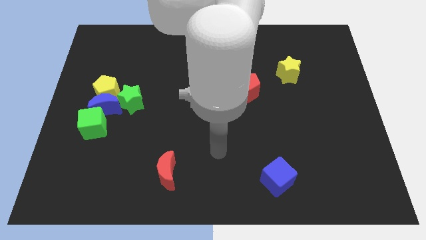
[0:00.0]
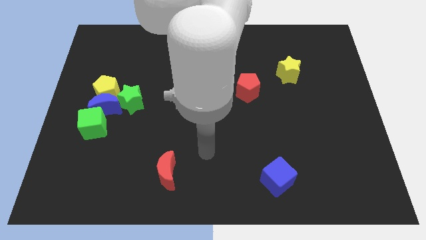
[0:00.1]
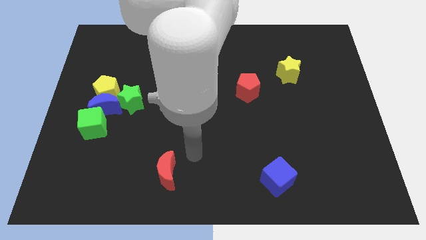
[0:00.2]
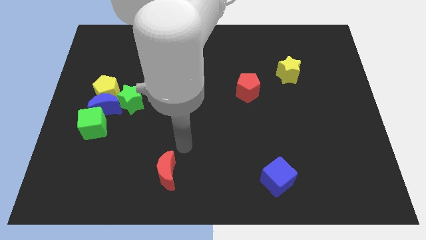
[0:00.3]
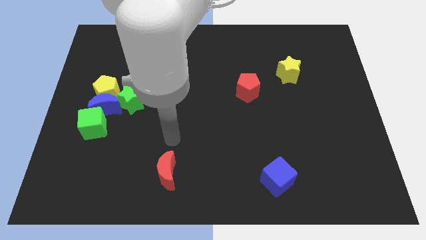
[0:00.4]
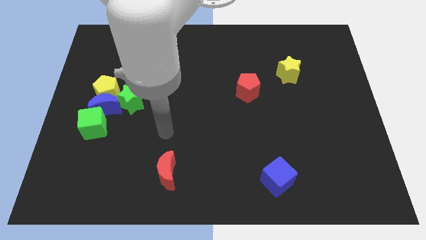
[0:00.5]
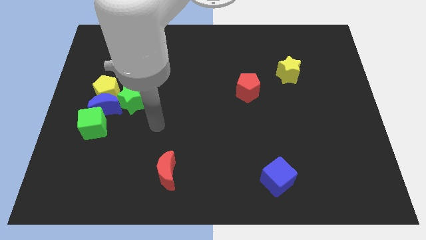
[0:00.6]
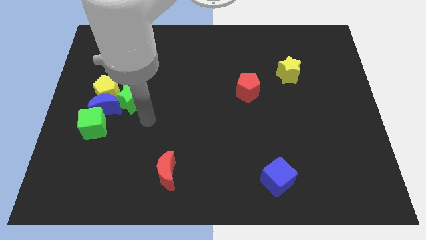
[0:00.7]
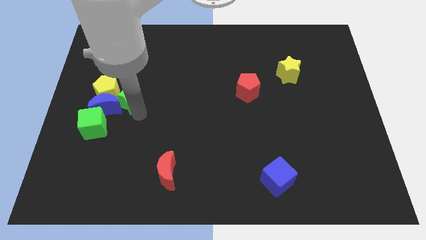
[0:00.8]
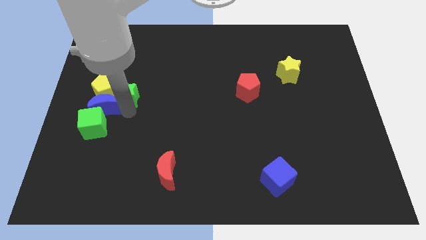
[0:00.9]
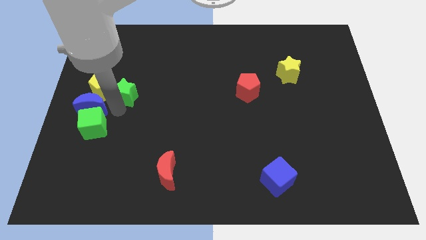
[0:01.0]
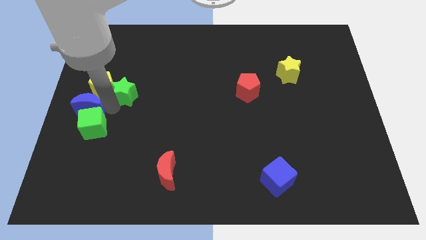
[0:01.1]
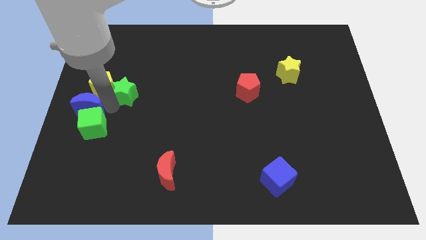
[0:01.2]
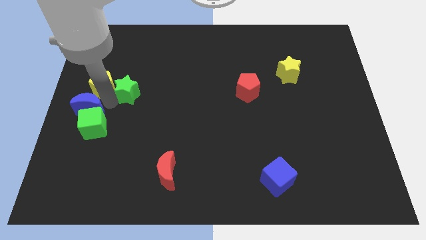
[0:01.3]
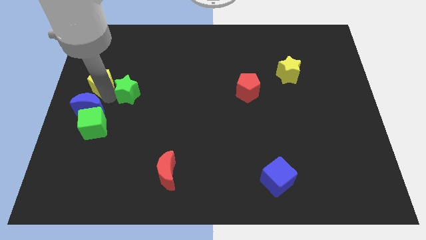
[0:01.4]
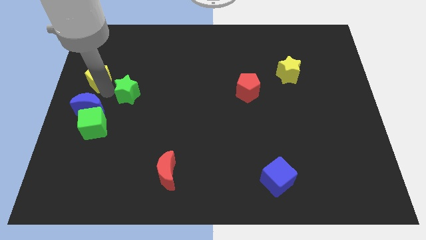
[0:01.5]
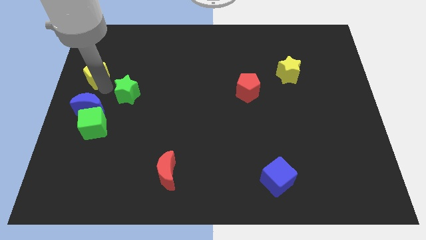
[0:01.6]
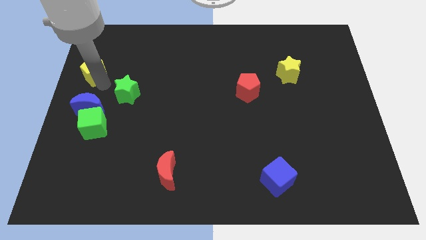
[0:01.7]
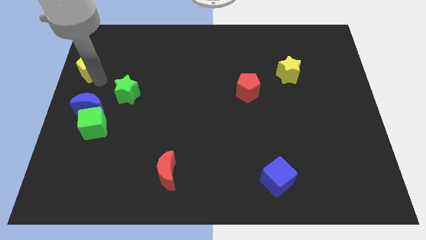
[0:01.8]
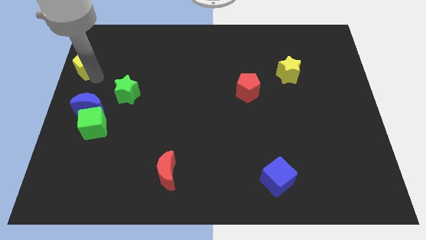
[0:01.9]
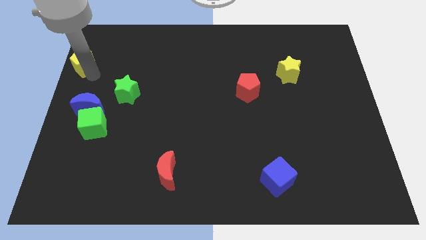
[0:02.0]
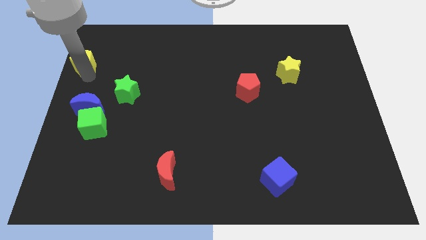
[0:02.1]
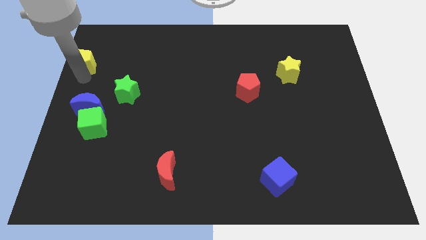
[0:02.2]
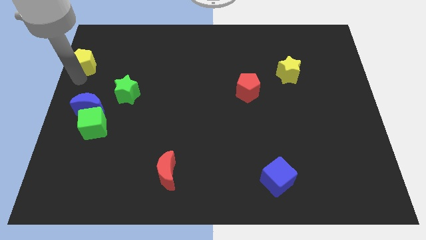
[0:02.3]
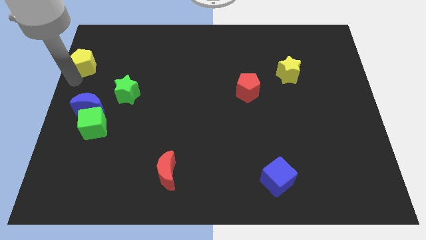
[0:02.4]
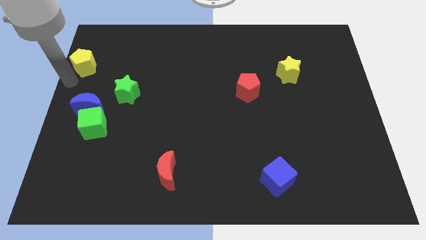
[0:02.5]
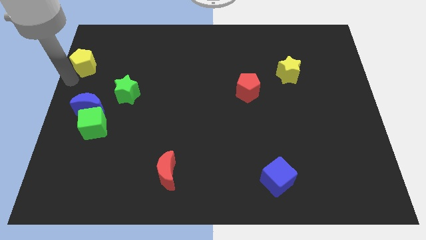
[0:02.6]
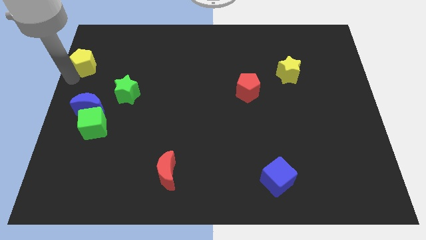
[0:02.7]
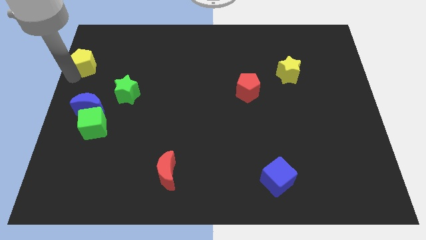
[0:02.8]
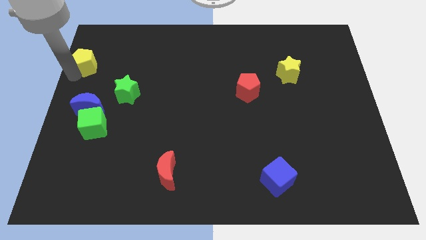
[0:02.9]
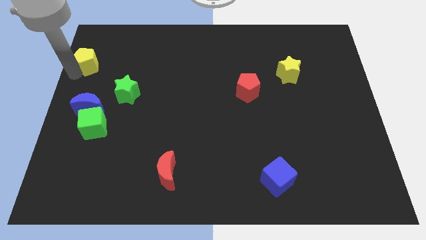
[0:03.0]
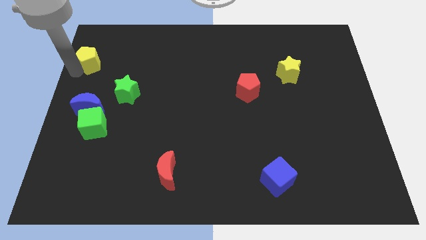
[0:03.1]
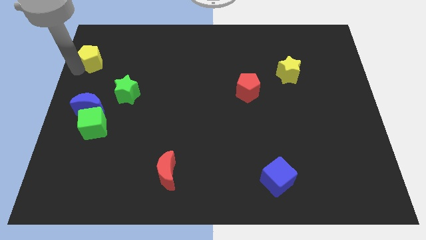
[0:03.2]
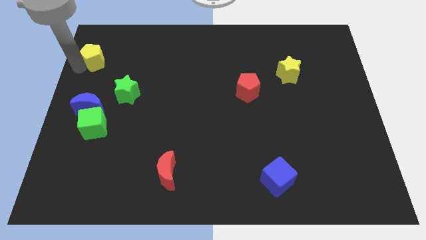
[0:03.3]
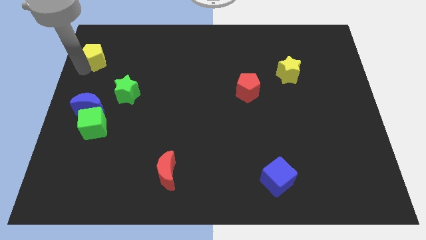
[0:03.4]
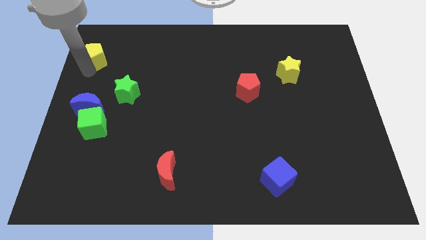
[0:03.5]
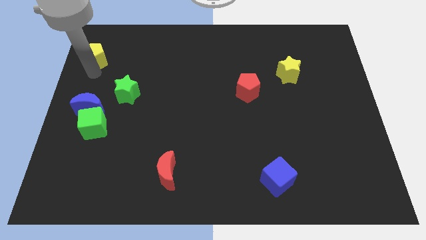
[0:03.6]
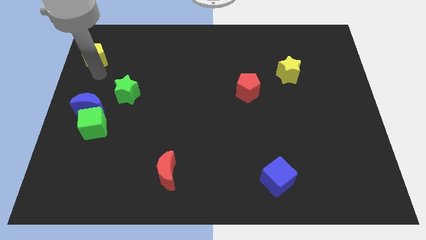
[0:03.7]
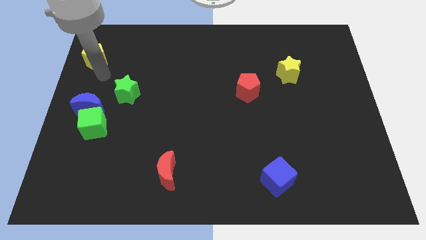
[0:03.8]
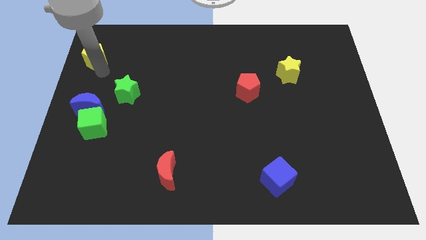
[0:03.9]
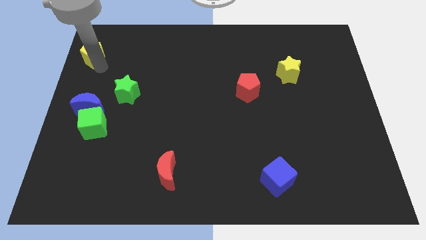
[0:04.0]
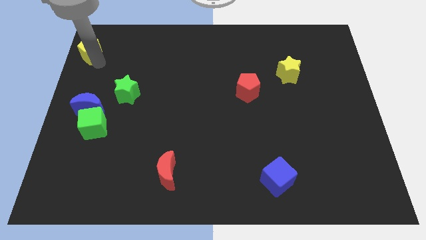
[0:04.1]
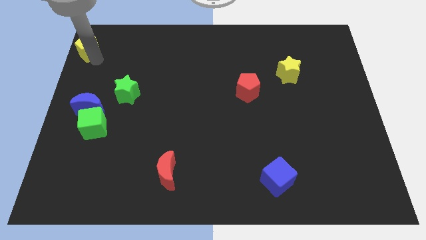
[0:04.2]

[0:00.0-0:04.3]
put the yellow pentagon to the top left

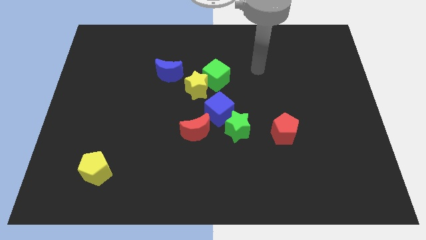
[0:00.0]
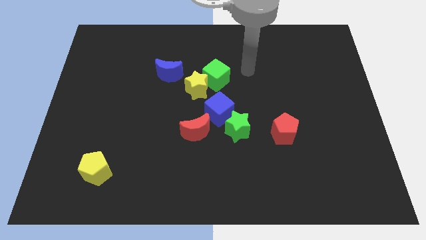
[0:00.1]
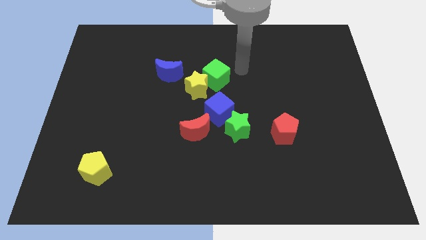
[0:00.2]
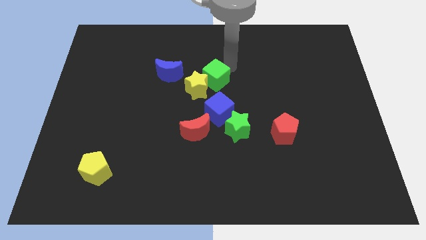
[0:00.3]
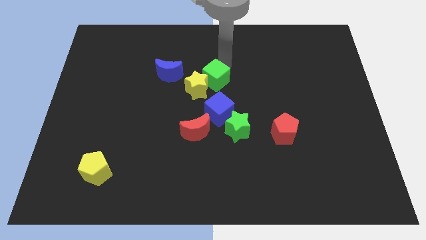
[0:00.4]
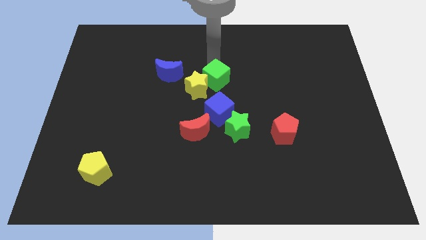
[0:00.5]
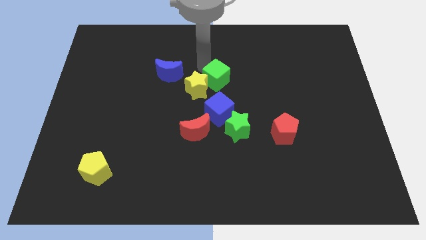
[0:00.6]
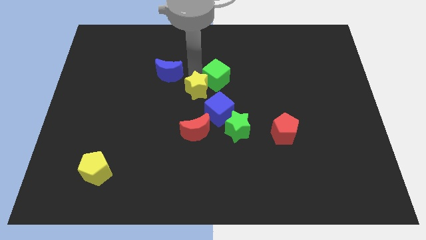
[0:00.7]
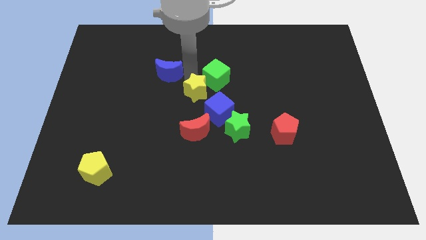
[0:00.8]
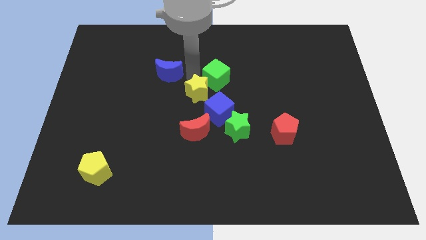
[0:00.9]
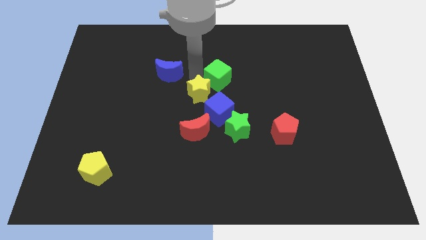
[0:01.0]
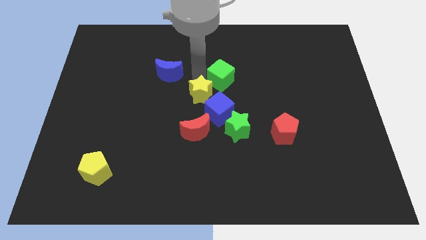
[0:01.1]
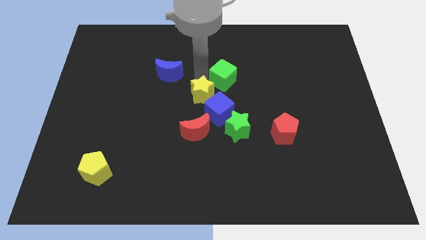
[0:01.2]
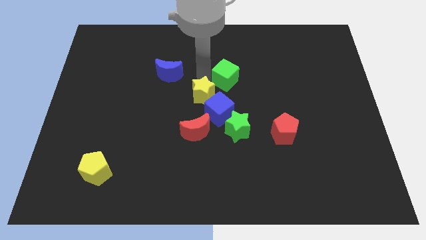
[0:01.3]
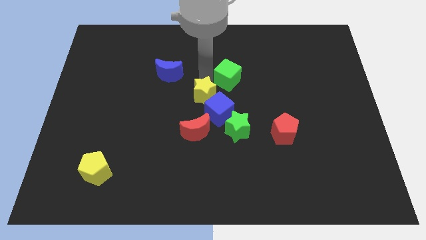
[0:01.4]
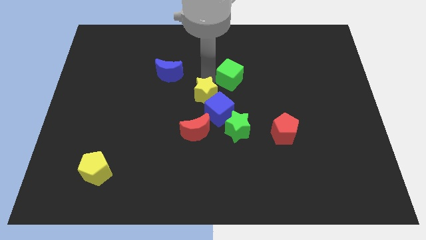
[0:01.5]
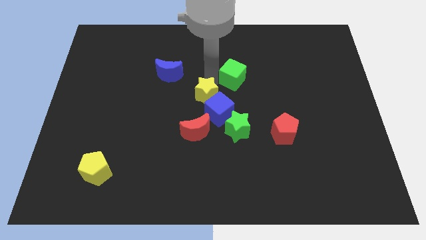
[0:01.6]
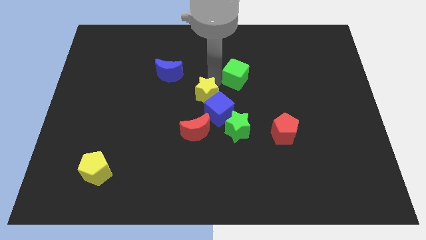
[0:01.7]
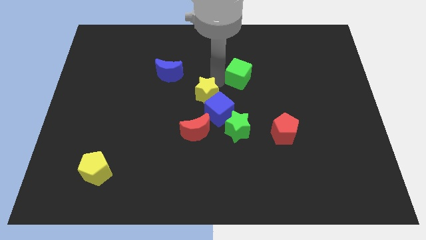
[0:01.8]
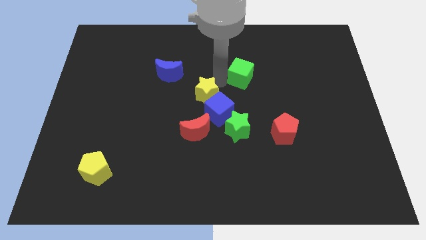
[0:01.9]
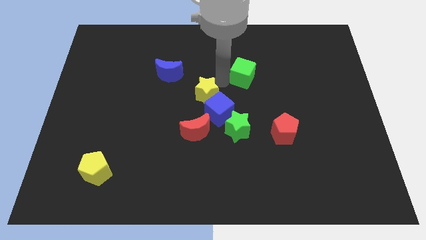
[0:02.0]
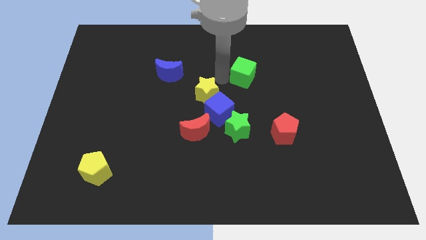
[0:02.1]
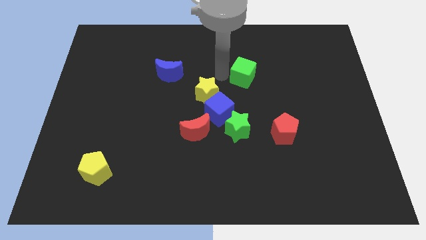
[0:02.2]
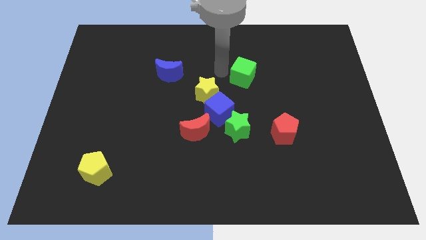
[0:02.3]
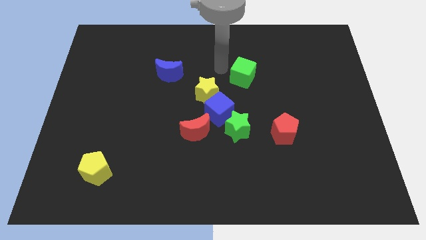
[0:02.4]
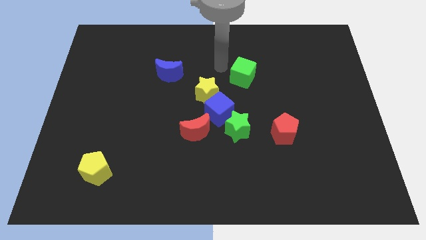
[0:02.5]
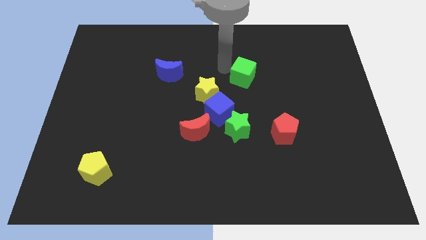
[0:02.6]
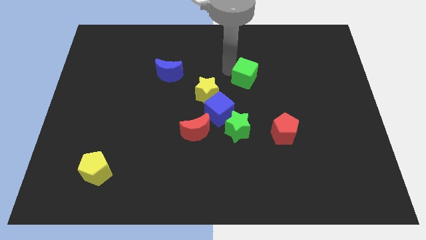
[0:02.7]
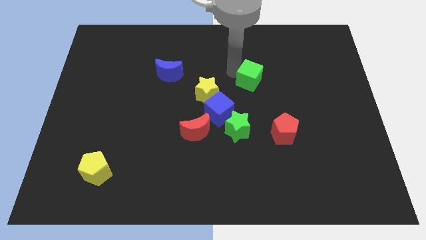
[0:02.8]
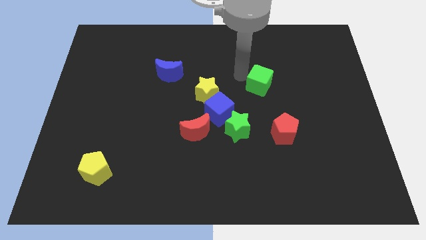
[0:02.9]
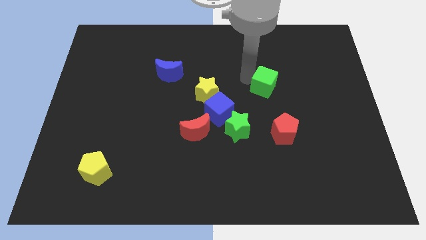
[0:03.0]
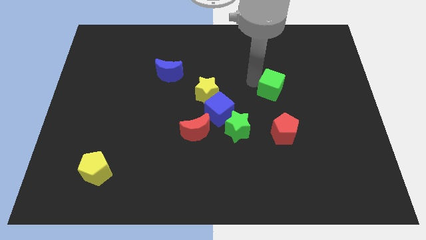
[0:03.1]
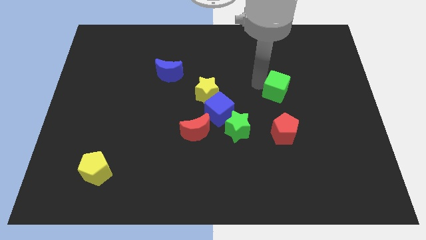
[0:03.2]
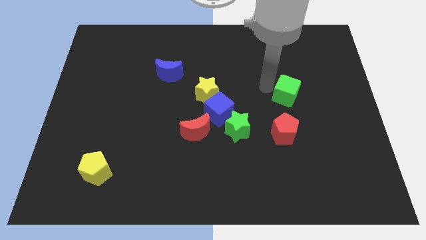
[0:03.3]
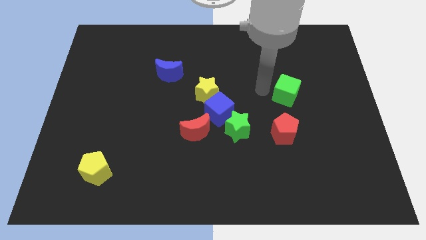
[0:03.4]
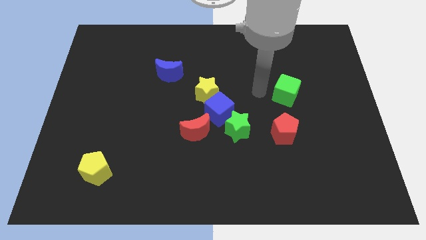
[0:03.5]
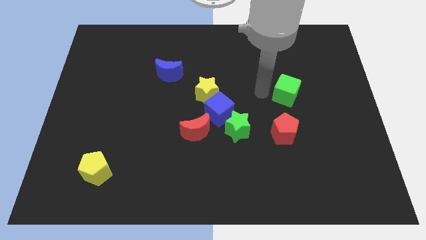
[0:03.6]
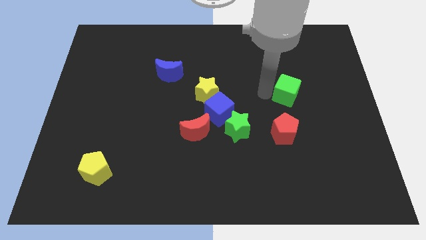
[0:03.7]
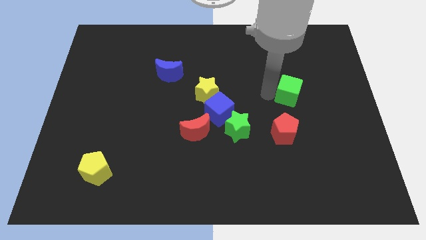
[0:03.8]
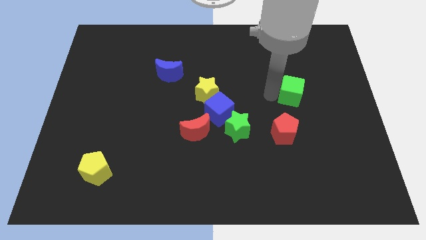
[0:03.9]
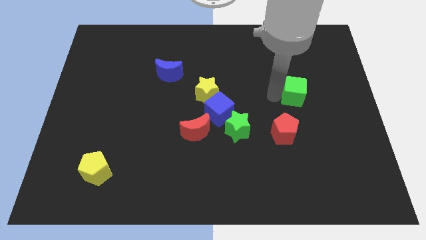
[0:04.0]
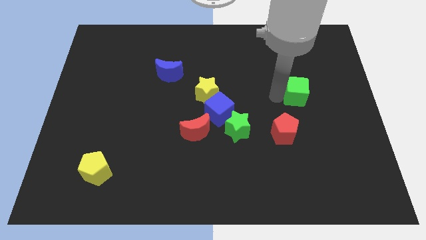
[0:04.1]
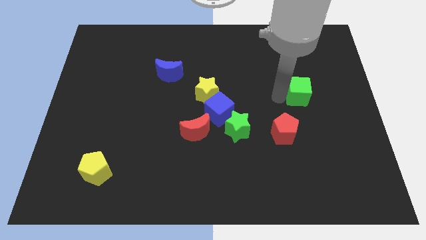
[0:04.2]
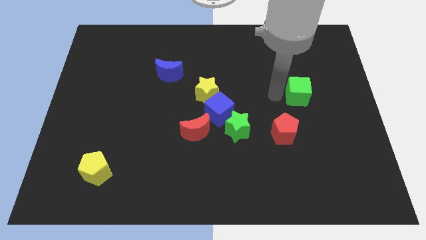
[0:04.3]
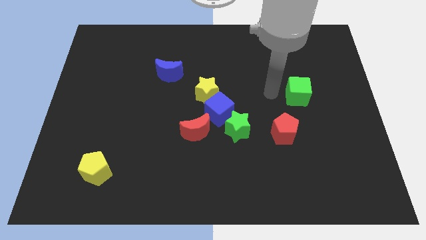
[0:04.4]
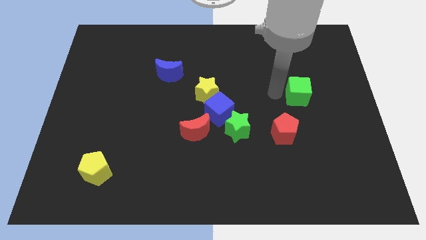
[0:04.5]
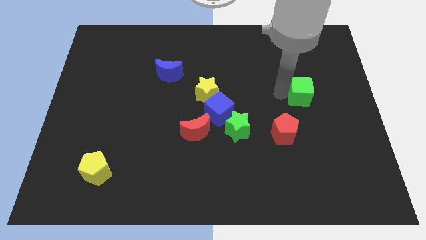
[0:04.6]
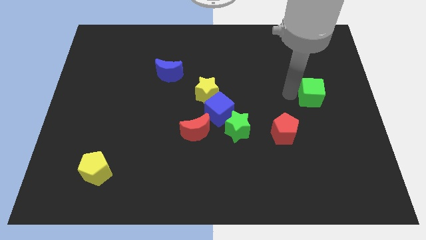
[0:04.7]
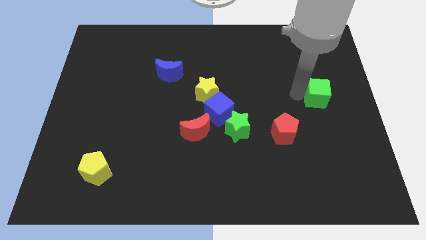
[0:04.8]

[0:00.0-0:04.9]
push the green cube to the right side
